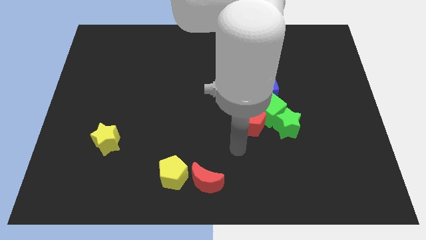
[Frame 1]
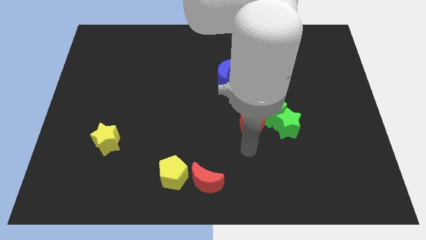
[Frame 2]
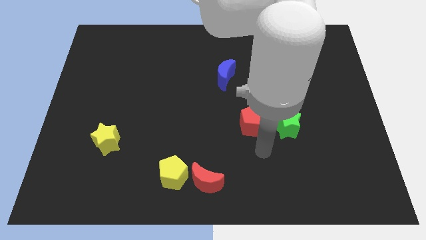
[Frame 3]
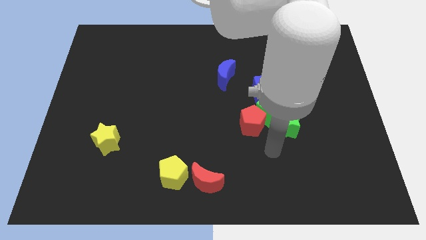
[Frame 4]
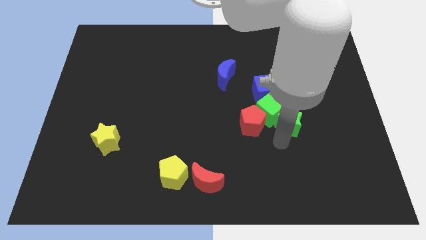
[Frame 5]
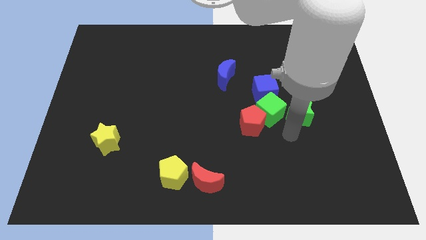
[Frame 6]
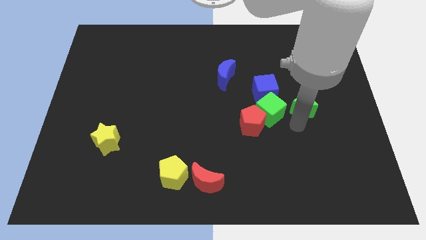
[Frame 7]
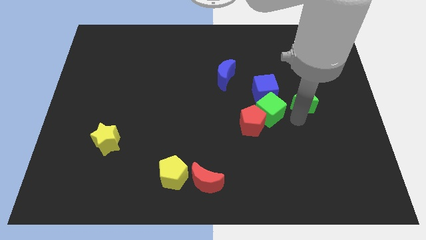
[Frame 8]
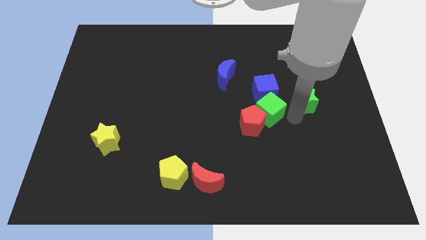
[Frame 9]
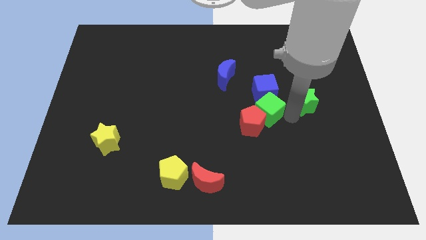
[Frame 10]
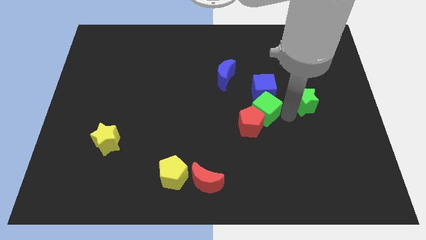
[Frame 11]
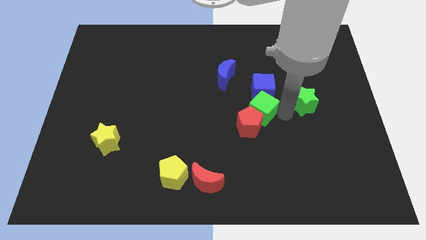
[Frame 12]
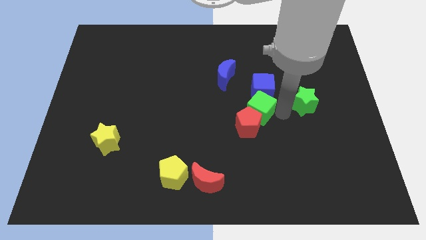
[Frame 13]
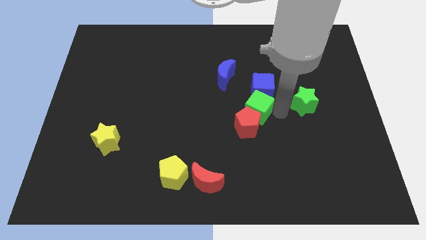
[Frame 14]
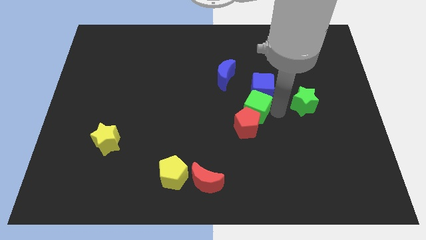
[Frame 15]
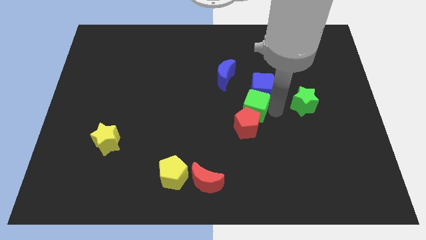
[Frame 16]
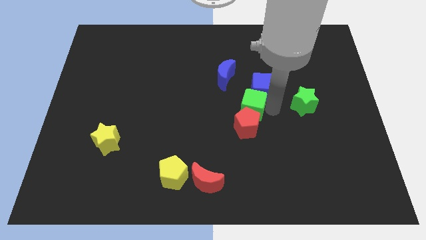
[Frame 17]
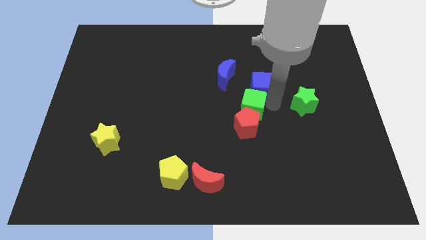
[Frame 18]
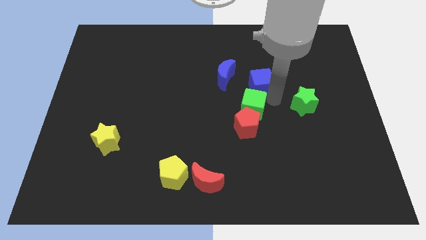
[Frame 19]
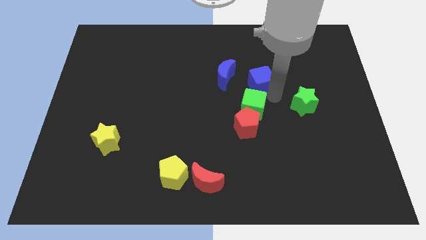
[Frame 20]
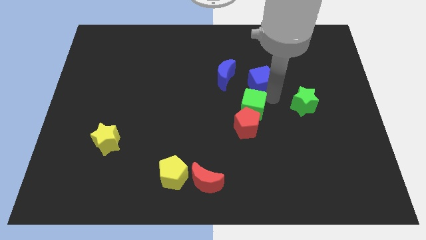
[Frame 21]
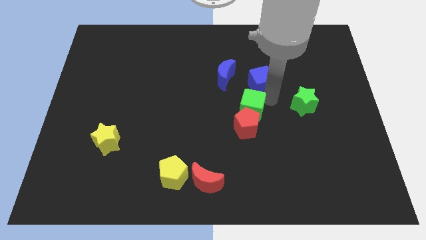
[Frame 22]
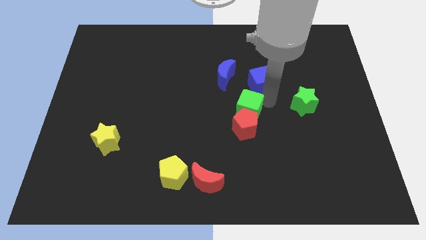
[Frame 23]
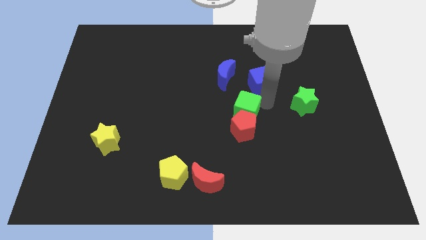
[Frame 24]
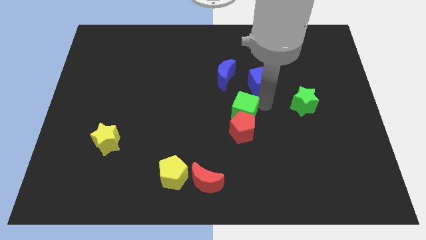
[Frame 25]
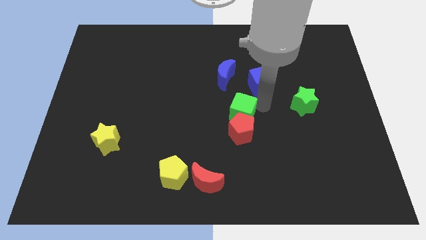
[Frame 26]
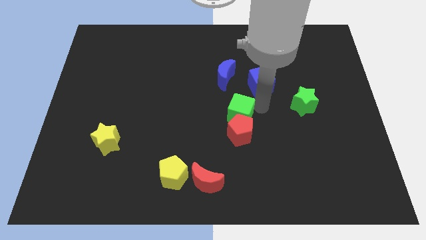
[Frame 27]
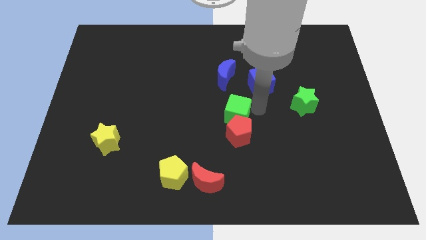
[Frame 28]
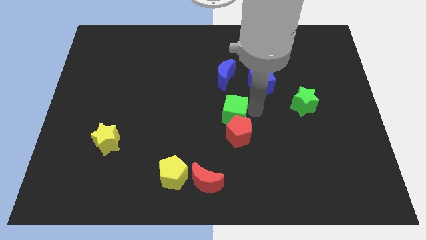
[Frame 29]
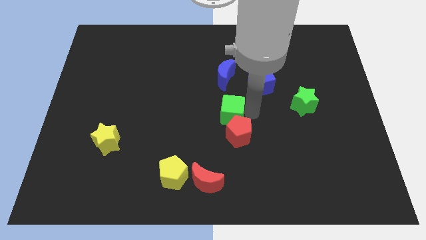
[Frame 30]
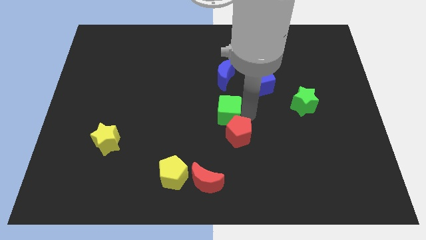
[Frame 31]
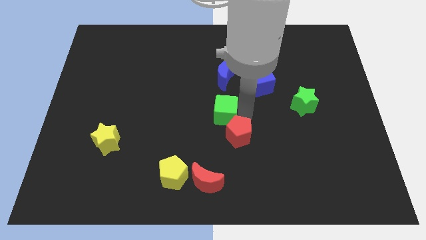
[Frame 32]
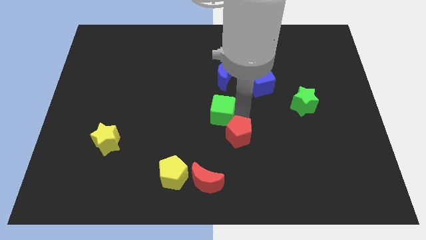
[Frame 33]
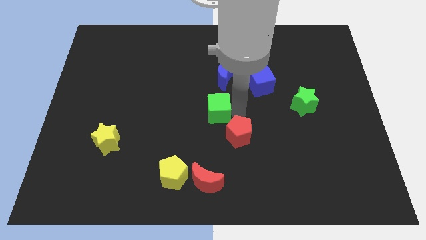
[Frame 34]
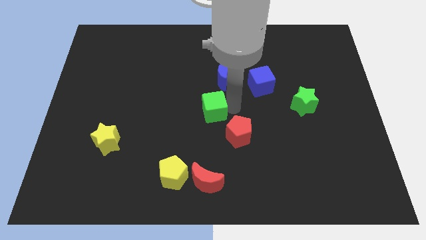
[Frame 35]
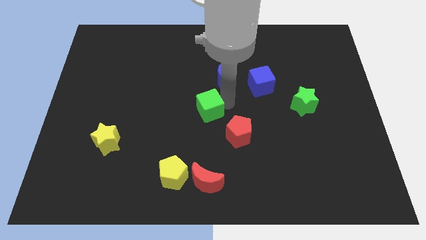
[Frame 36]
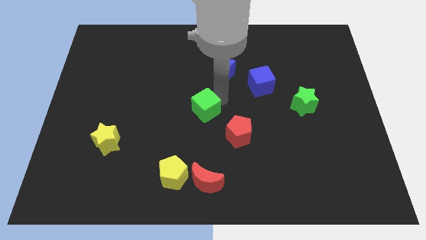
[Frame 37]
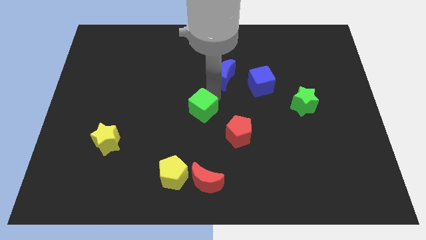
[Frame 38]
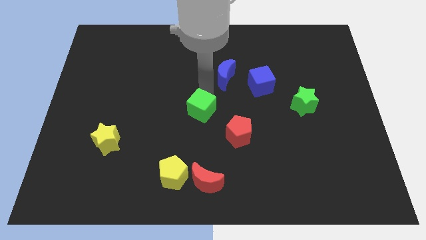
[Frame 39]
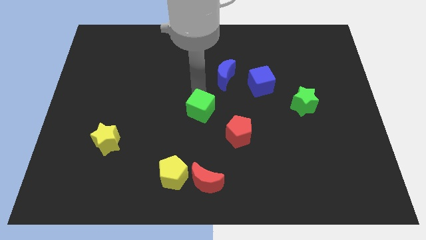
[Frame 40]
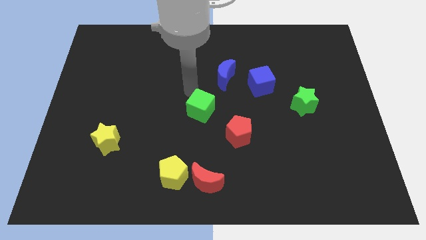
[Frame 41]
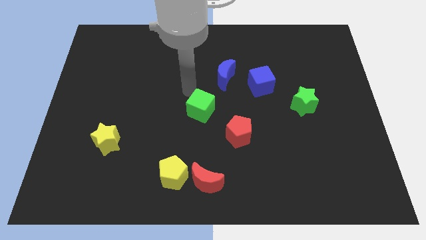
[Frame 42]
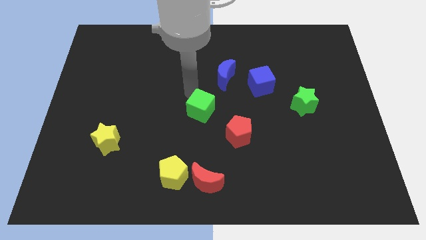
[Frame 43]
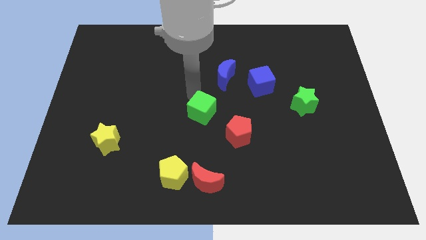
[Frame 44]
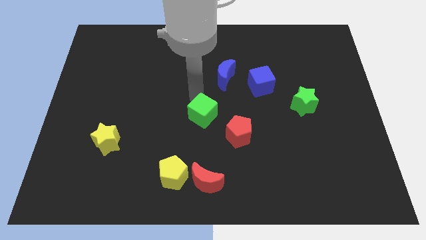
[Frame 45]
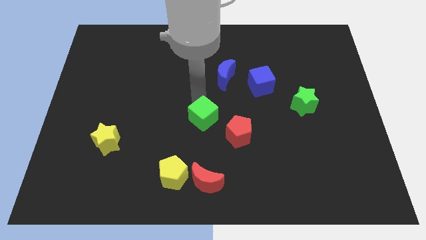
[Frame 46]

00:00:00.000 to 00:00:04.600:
move the green cube downwards and then to the left slightly

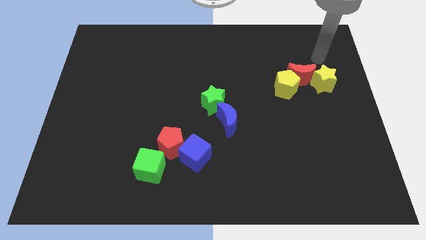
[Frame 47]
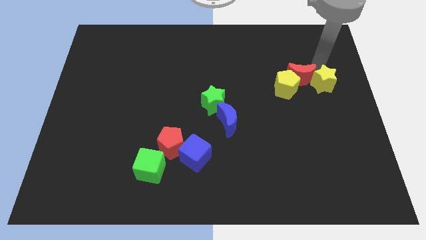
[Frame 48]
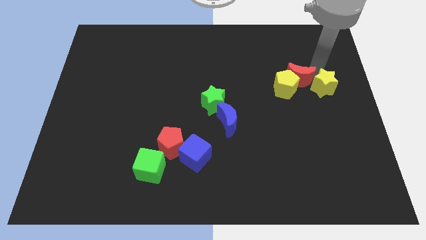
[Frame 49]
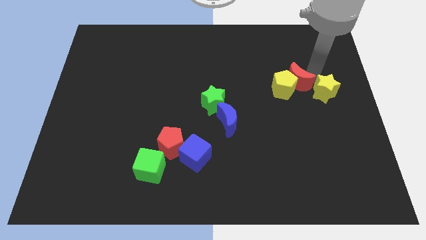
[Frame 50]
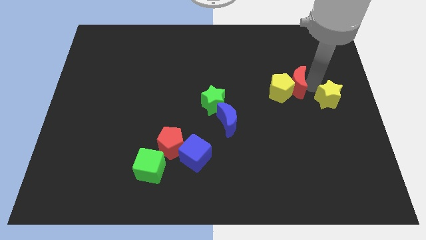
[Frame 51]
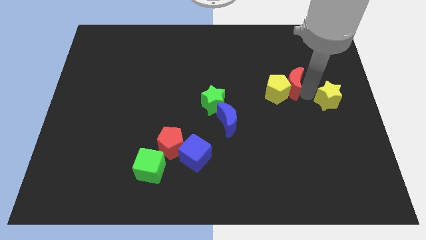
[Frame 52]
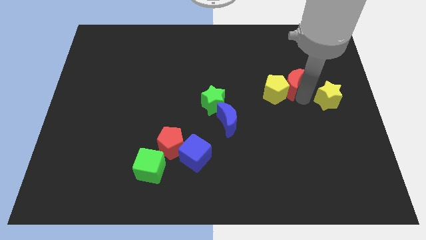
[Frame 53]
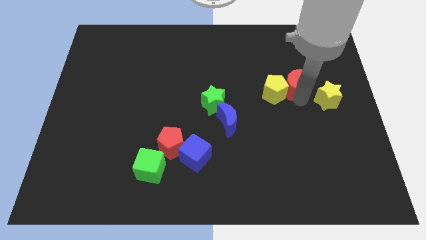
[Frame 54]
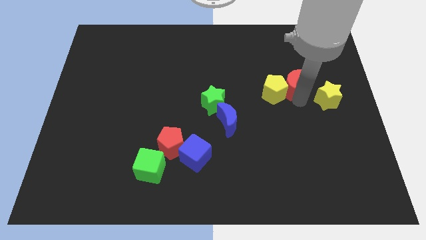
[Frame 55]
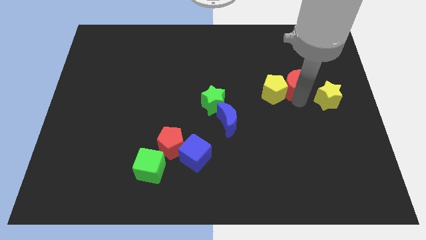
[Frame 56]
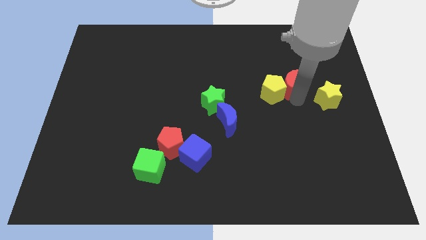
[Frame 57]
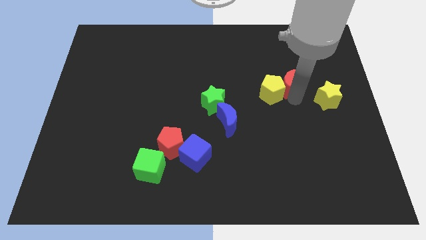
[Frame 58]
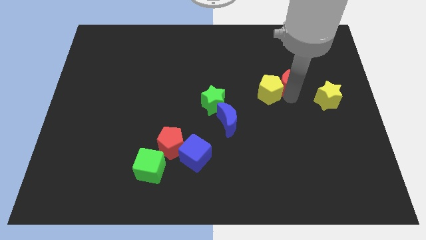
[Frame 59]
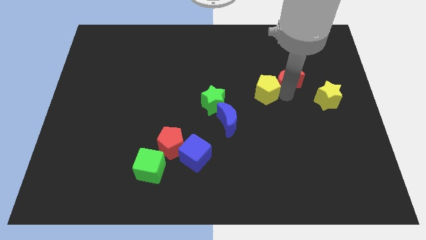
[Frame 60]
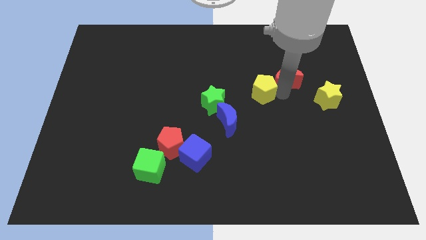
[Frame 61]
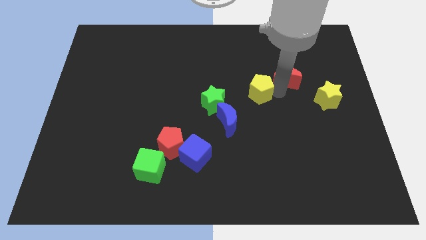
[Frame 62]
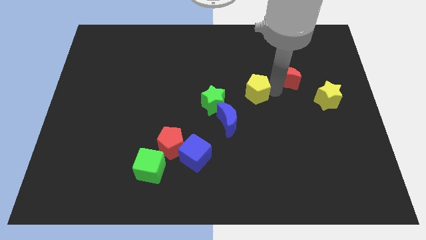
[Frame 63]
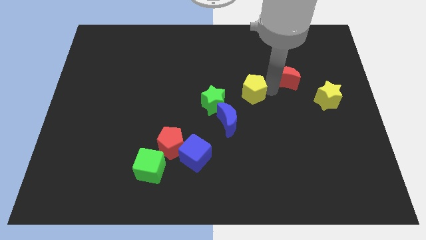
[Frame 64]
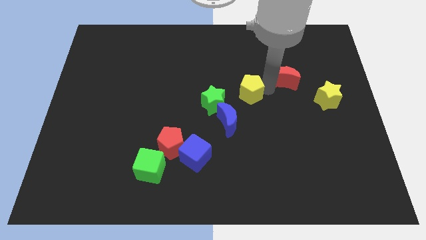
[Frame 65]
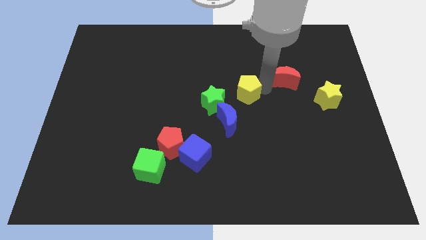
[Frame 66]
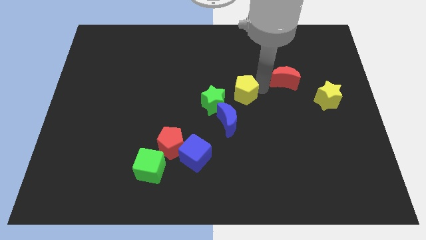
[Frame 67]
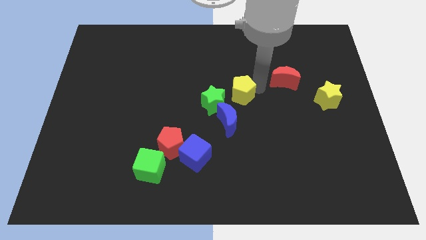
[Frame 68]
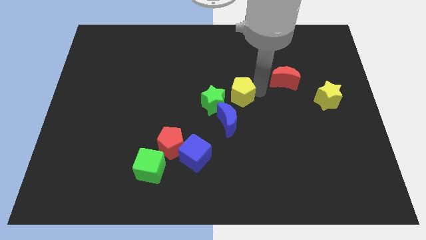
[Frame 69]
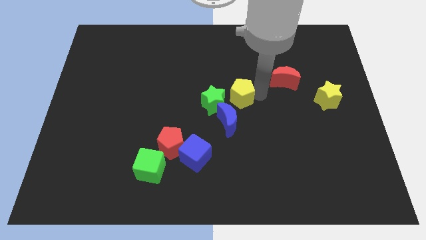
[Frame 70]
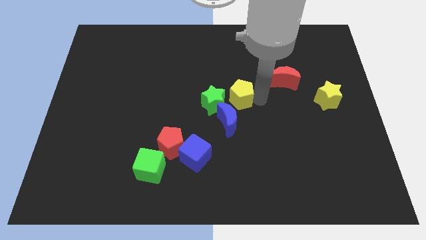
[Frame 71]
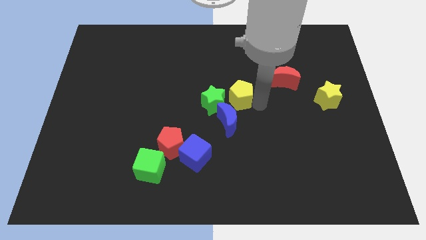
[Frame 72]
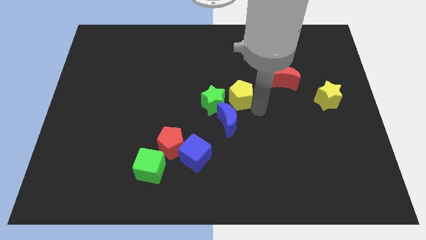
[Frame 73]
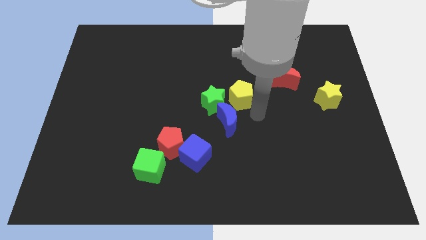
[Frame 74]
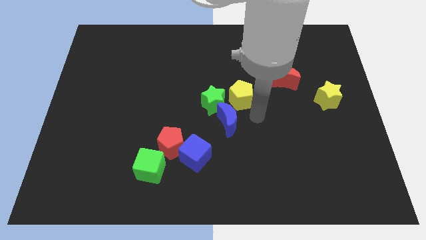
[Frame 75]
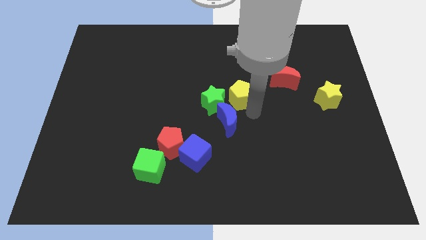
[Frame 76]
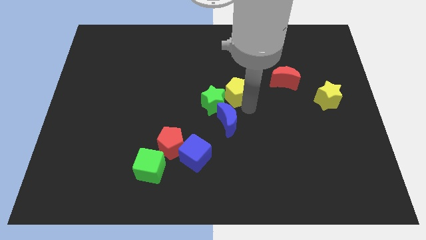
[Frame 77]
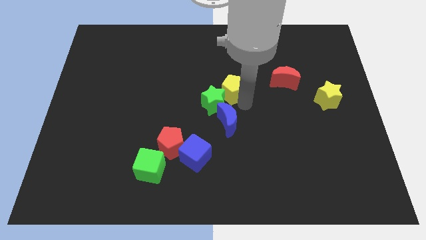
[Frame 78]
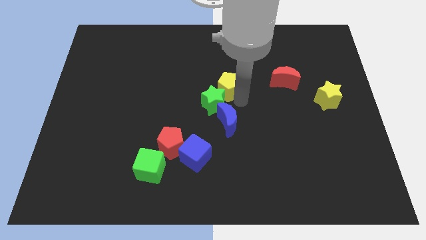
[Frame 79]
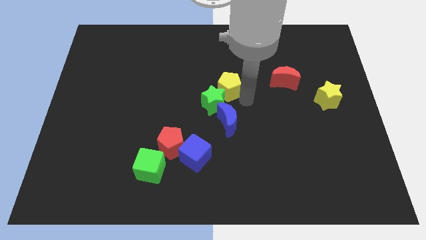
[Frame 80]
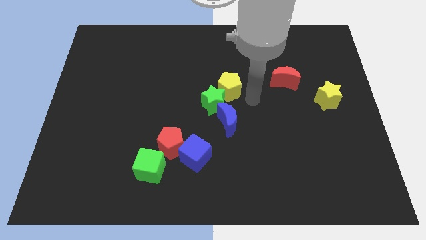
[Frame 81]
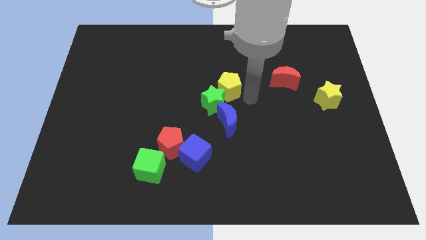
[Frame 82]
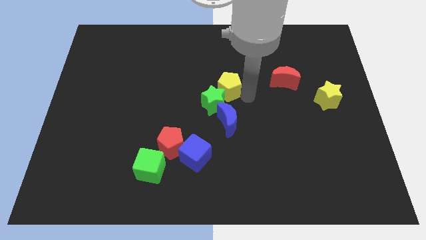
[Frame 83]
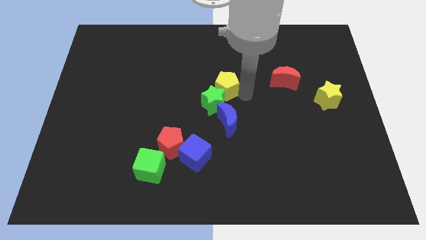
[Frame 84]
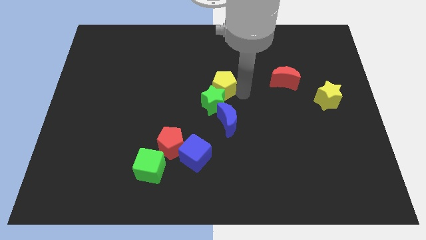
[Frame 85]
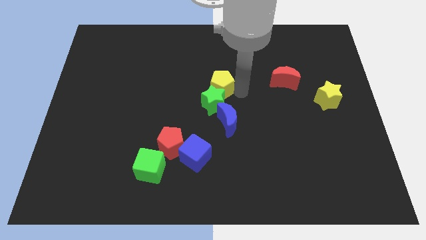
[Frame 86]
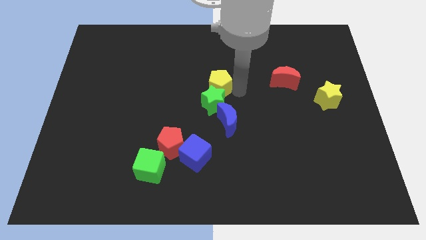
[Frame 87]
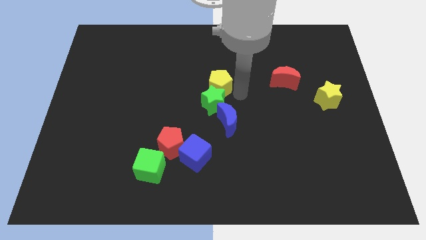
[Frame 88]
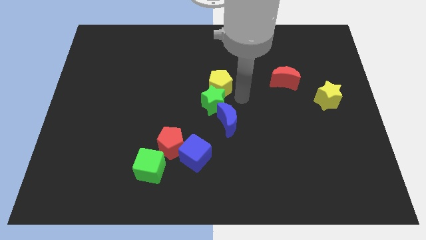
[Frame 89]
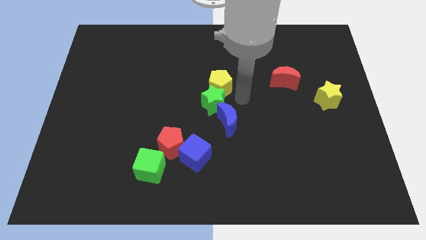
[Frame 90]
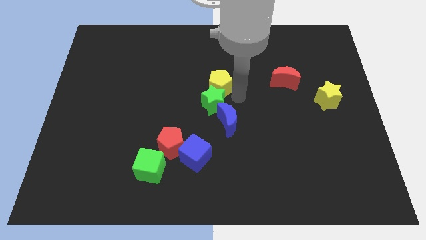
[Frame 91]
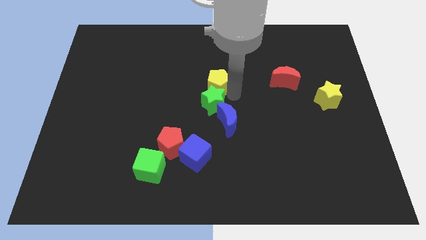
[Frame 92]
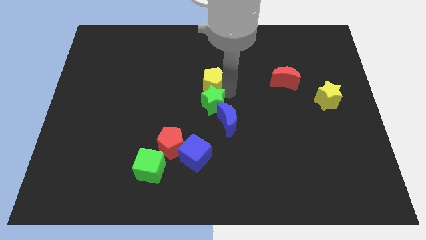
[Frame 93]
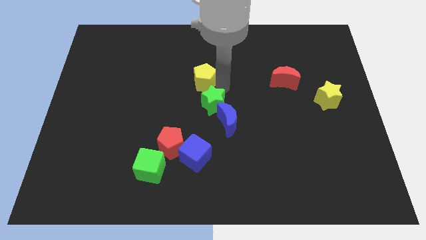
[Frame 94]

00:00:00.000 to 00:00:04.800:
push the yellow pentagon left
